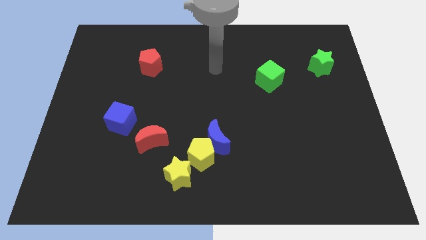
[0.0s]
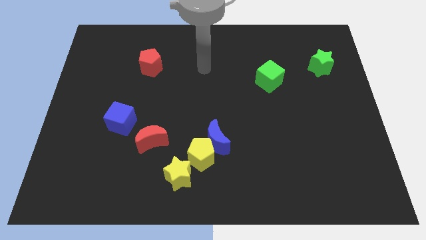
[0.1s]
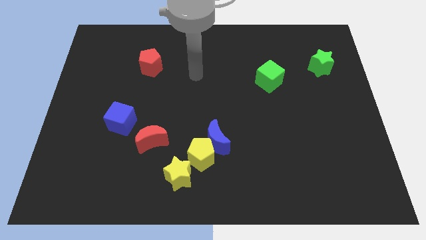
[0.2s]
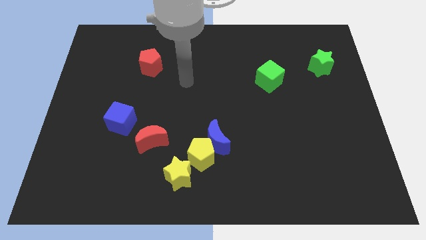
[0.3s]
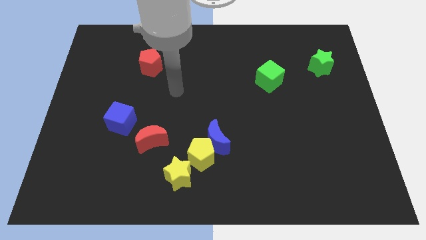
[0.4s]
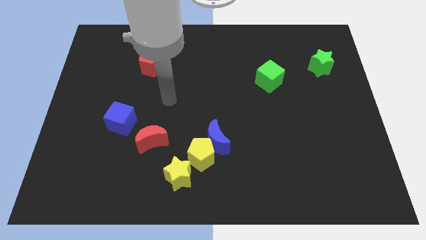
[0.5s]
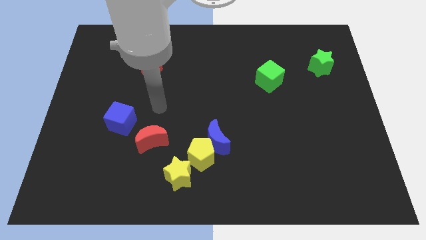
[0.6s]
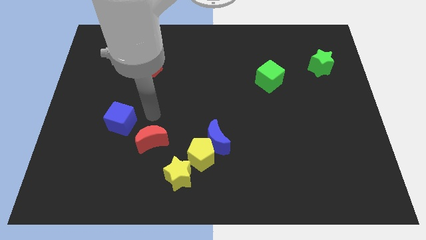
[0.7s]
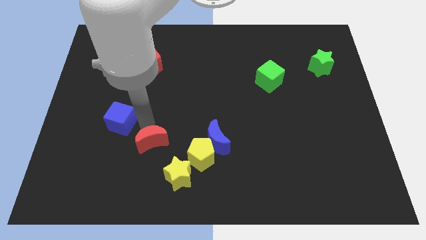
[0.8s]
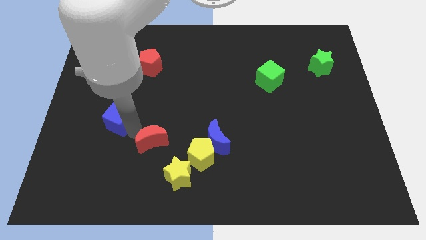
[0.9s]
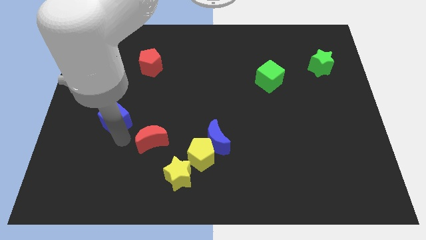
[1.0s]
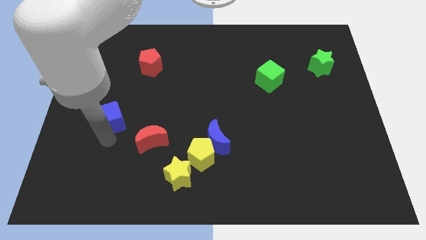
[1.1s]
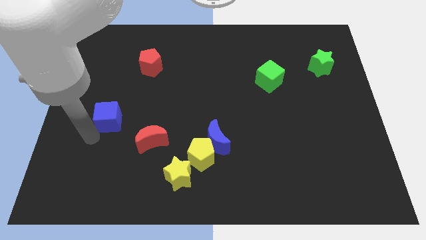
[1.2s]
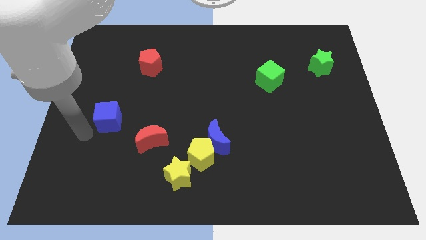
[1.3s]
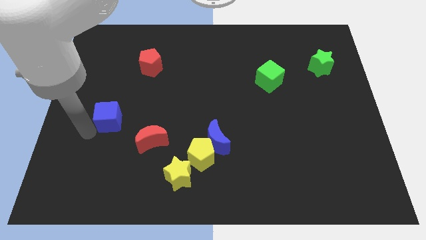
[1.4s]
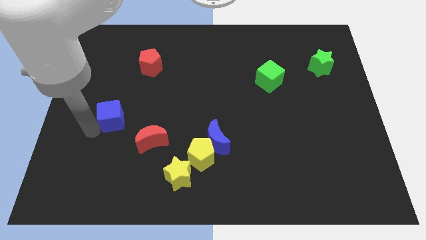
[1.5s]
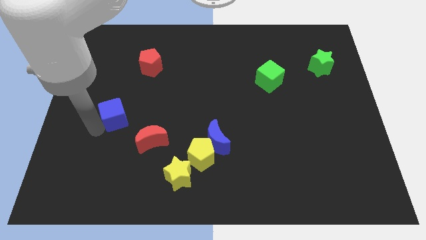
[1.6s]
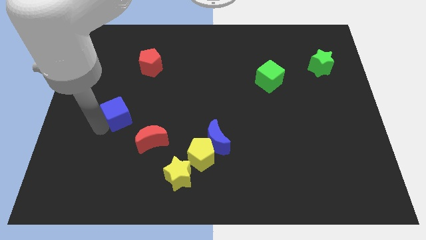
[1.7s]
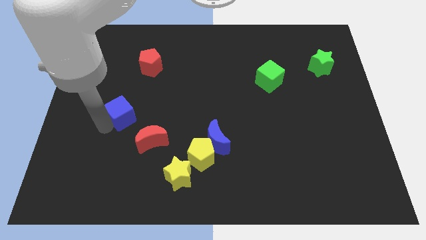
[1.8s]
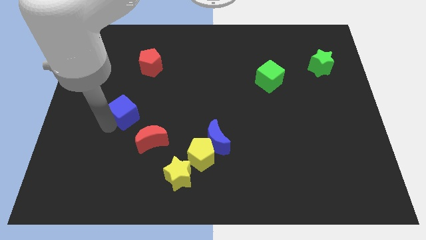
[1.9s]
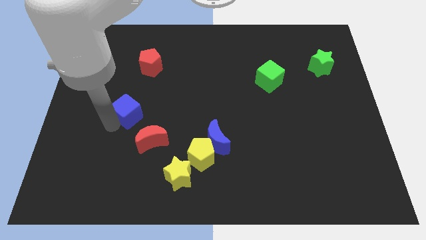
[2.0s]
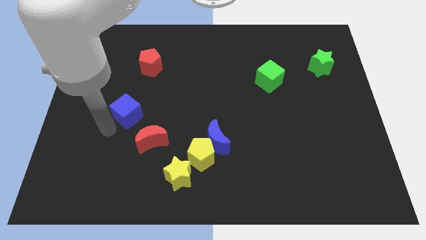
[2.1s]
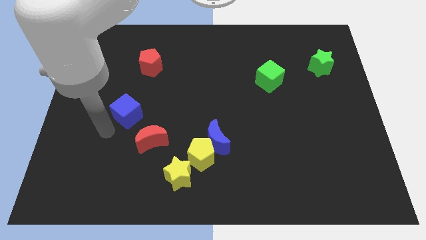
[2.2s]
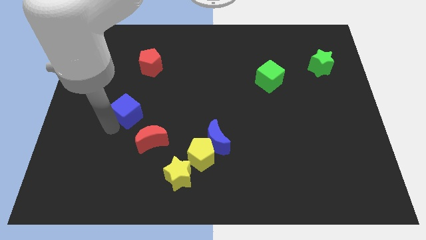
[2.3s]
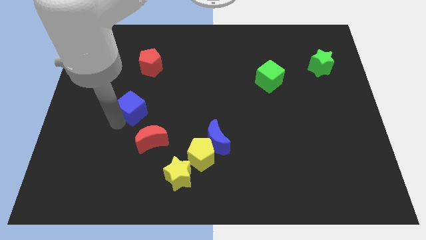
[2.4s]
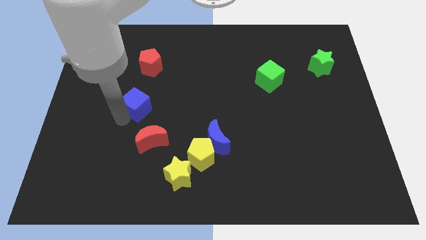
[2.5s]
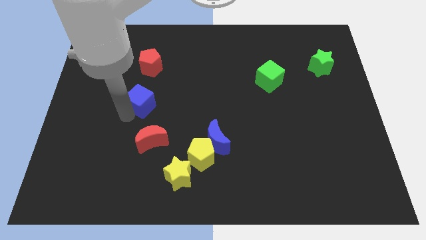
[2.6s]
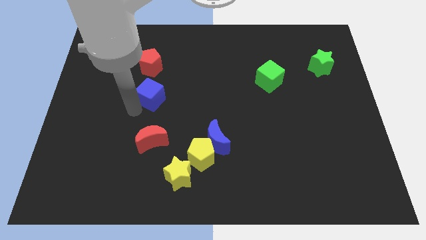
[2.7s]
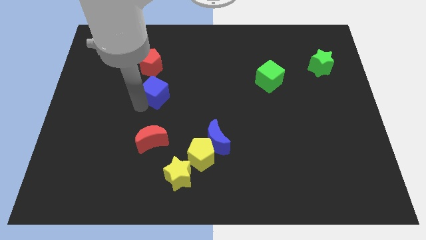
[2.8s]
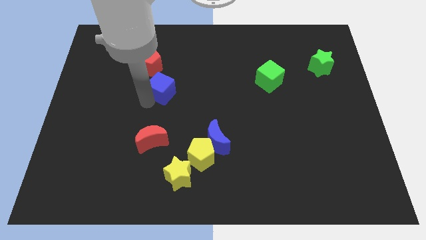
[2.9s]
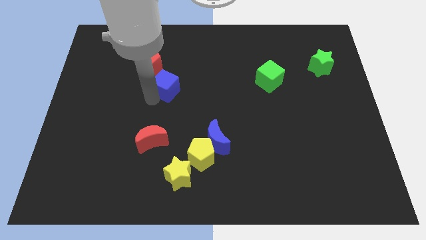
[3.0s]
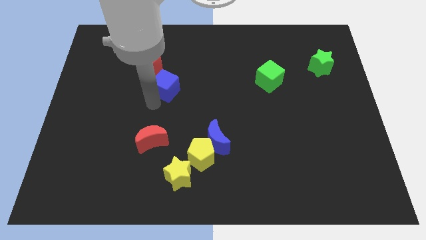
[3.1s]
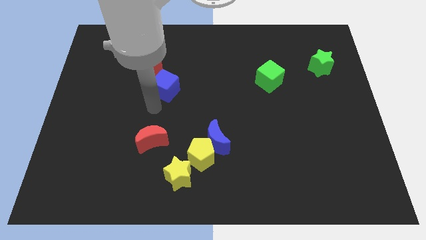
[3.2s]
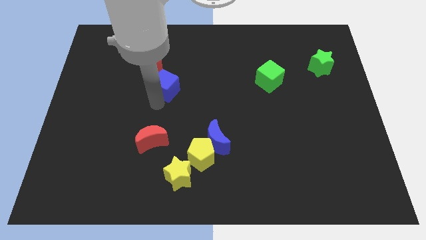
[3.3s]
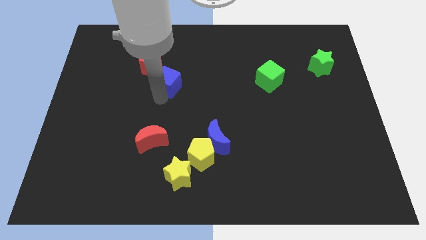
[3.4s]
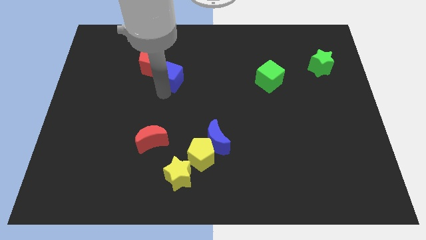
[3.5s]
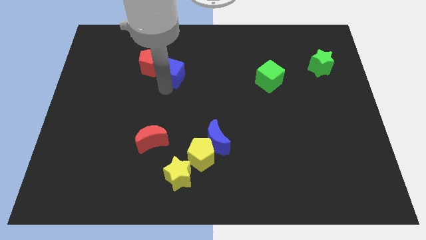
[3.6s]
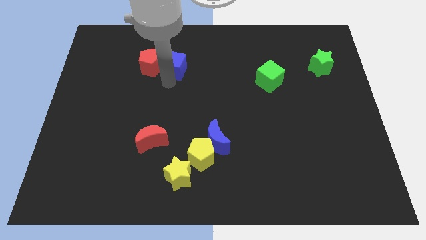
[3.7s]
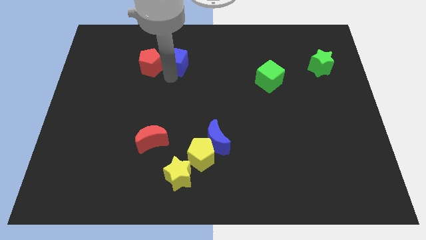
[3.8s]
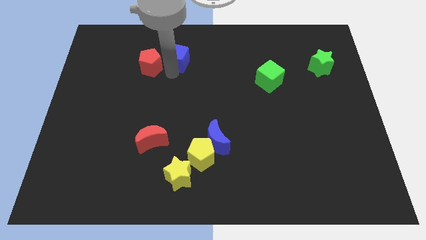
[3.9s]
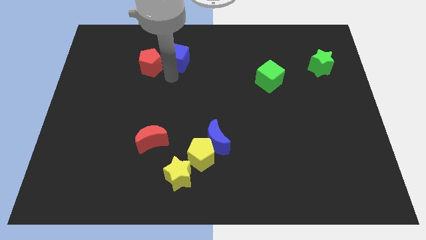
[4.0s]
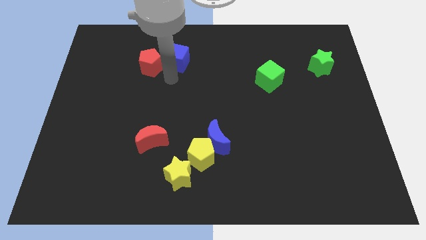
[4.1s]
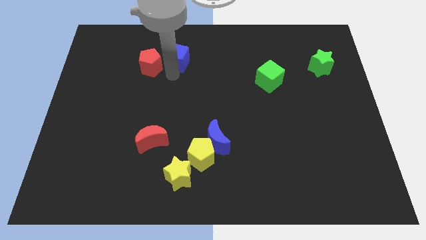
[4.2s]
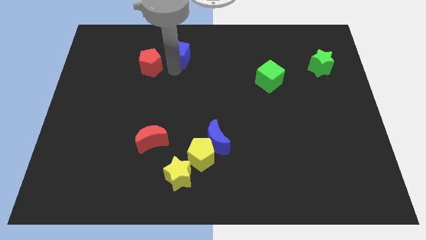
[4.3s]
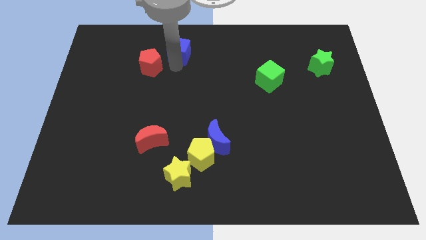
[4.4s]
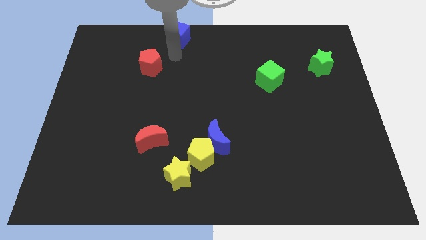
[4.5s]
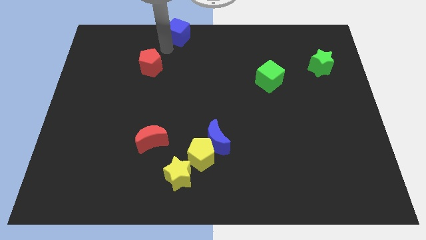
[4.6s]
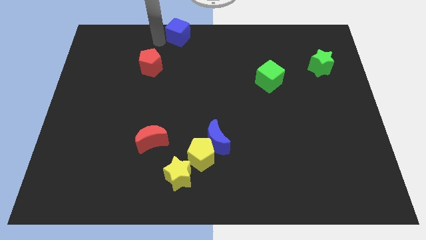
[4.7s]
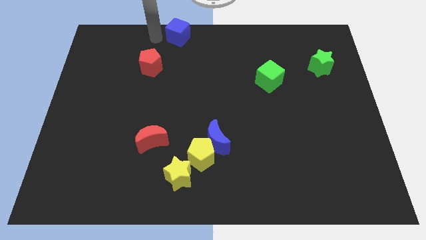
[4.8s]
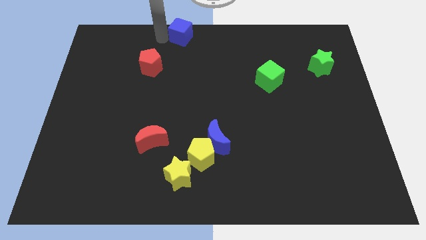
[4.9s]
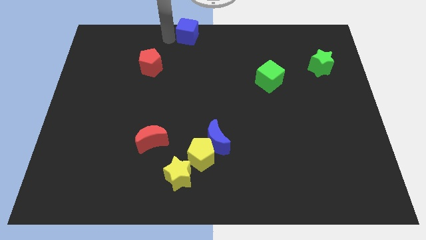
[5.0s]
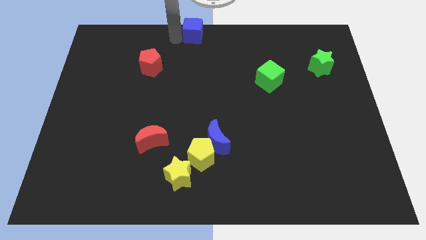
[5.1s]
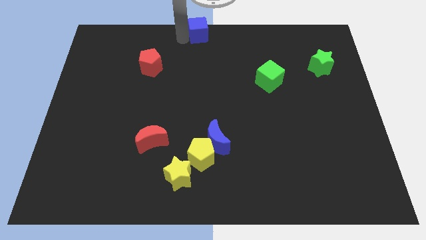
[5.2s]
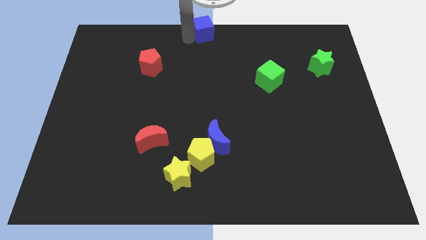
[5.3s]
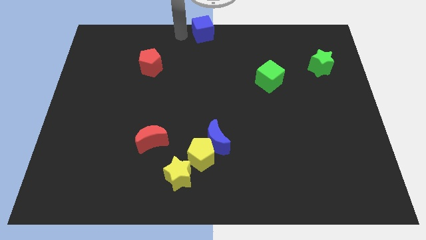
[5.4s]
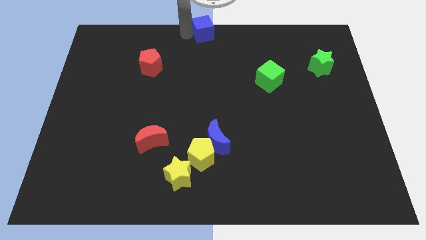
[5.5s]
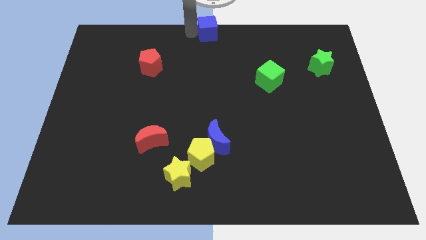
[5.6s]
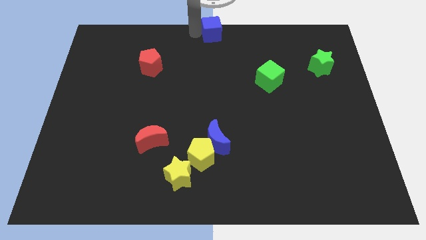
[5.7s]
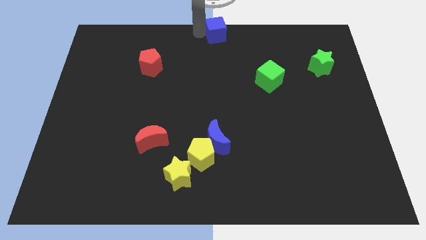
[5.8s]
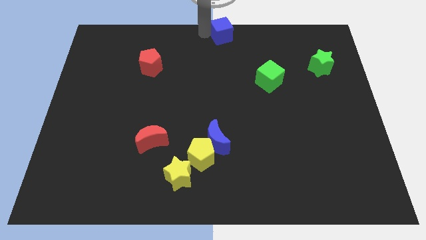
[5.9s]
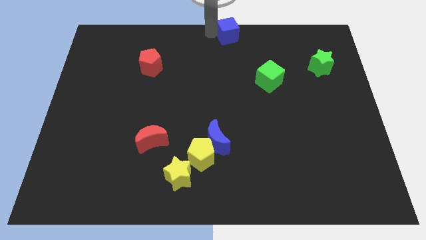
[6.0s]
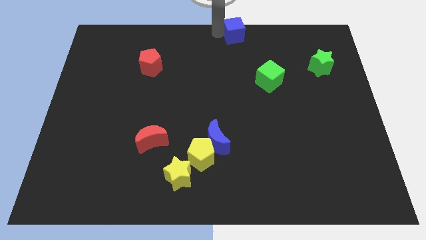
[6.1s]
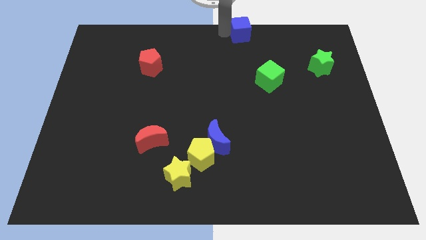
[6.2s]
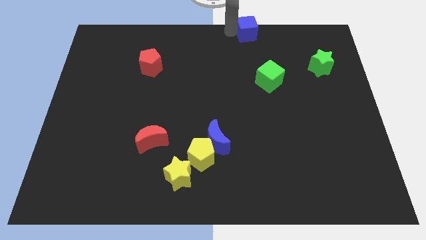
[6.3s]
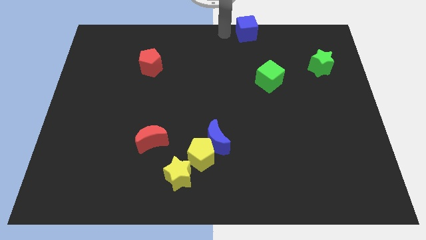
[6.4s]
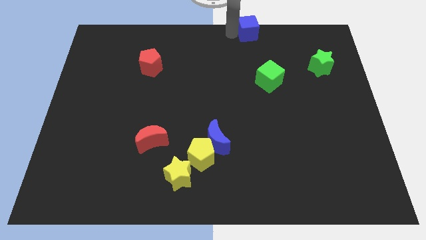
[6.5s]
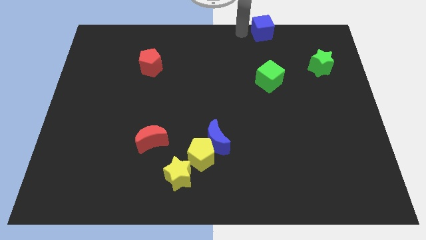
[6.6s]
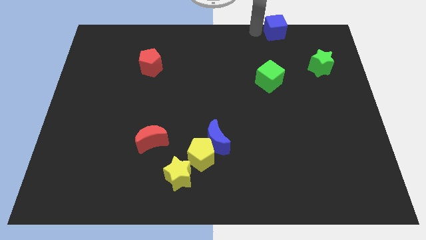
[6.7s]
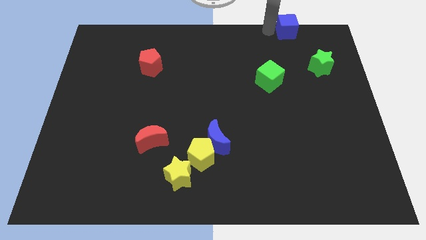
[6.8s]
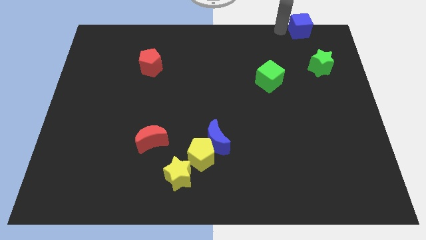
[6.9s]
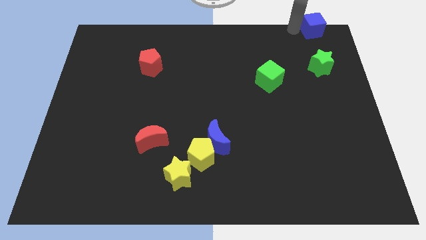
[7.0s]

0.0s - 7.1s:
move the blue cube to the top right corner
